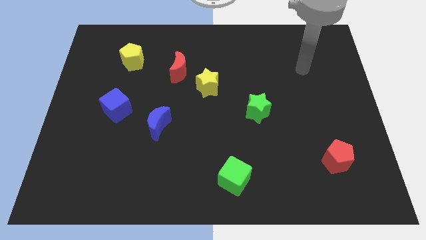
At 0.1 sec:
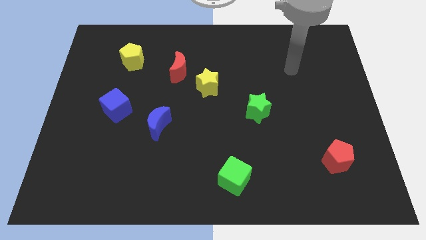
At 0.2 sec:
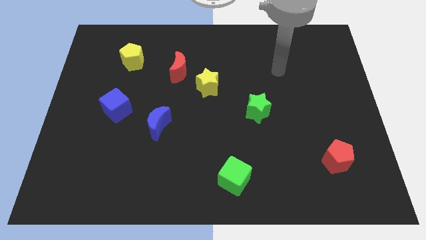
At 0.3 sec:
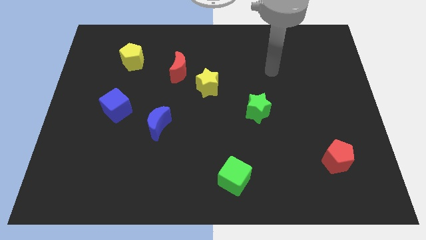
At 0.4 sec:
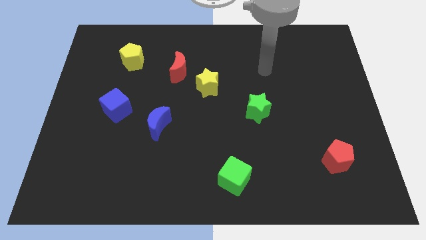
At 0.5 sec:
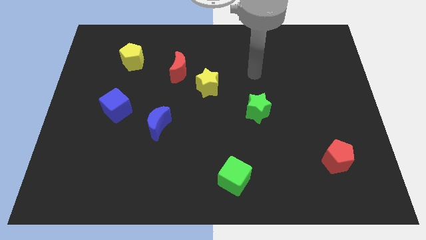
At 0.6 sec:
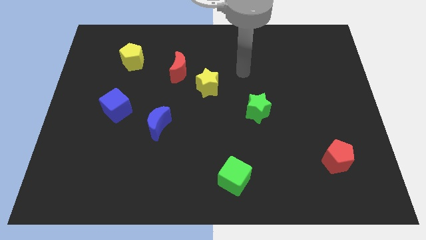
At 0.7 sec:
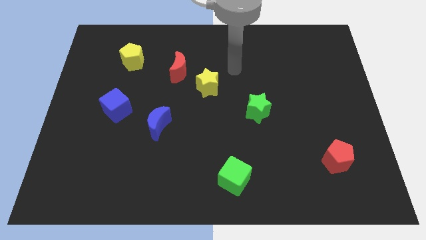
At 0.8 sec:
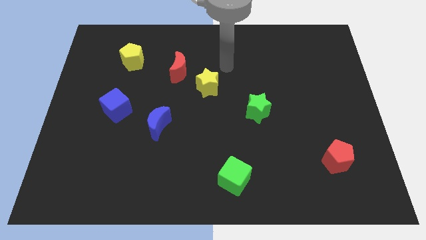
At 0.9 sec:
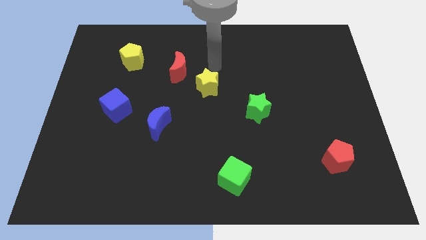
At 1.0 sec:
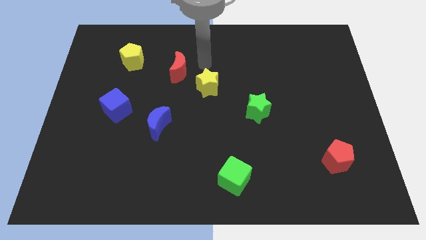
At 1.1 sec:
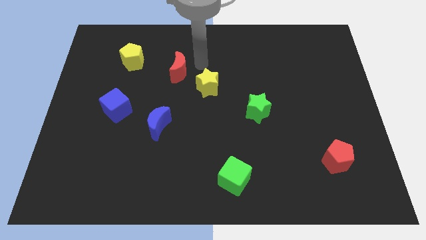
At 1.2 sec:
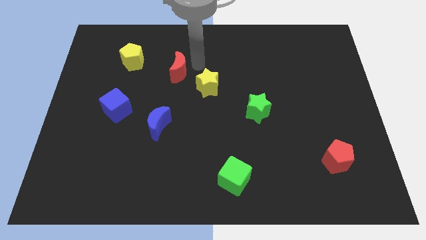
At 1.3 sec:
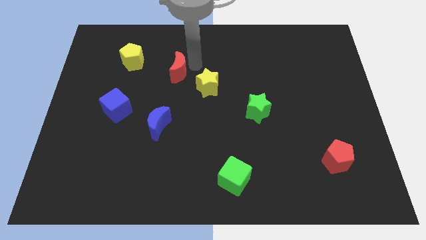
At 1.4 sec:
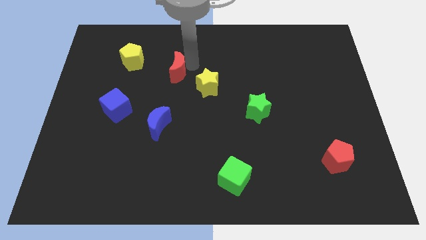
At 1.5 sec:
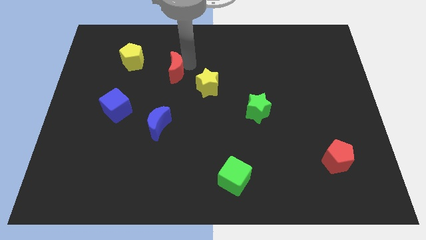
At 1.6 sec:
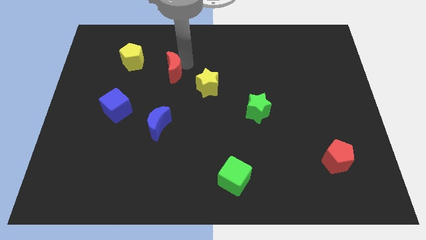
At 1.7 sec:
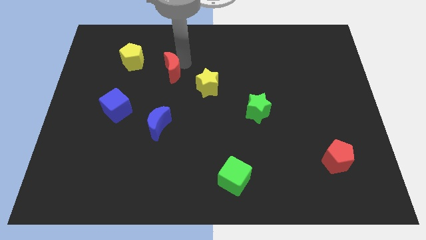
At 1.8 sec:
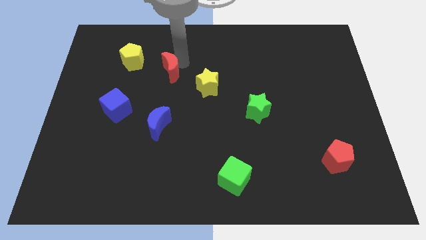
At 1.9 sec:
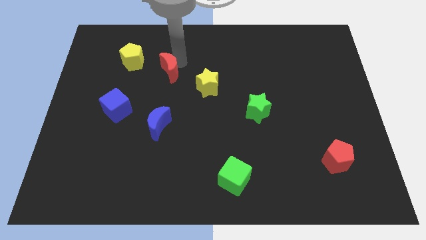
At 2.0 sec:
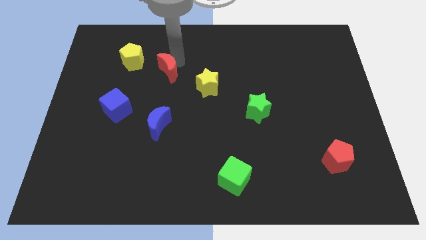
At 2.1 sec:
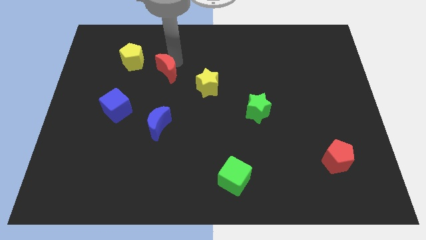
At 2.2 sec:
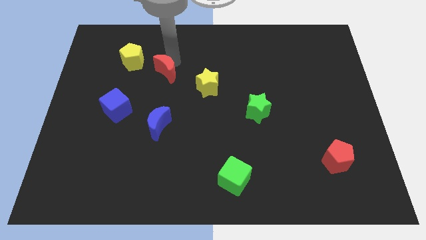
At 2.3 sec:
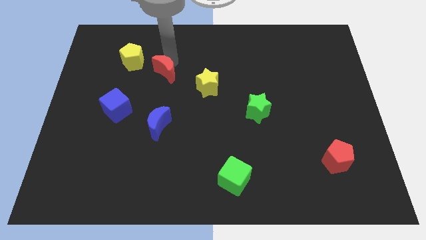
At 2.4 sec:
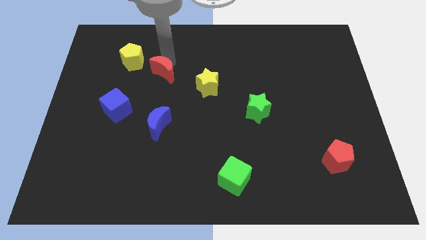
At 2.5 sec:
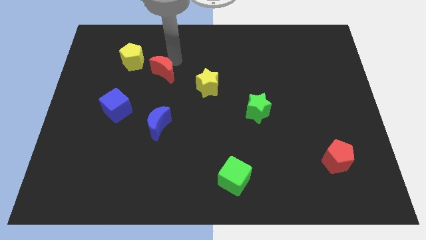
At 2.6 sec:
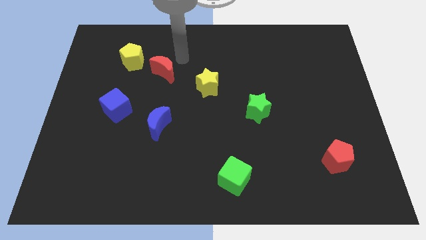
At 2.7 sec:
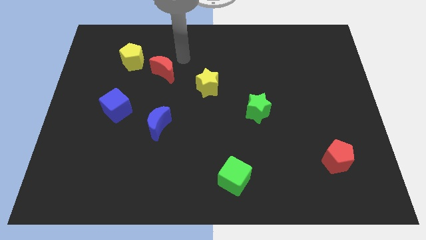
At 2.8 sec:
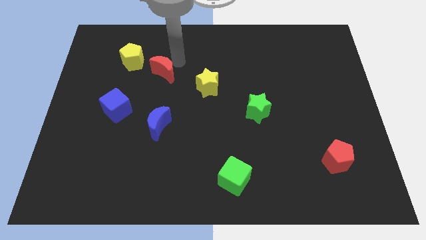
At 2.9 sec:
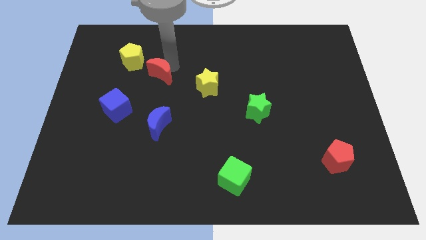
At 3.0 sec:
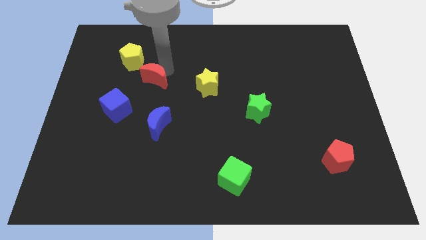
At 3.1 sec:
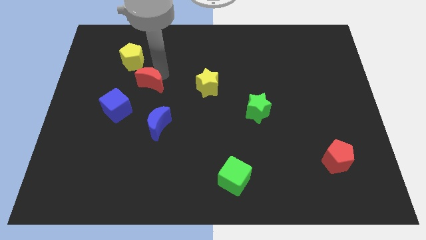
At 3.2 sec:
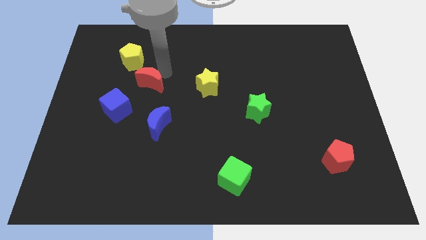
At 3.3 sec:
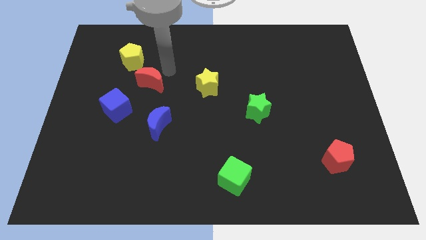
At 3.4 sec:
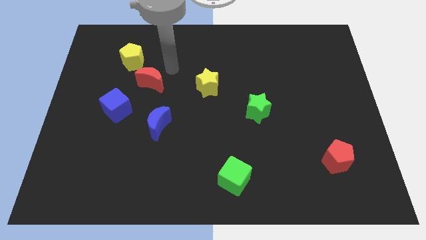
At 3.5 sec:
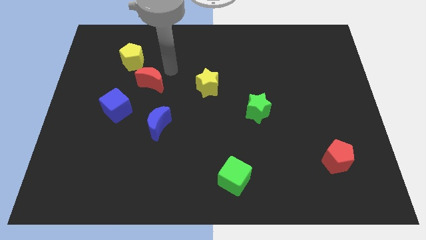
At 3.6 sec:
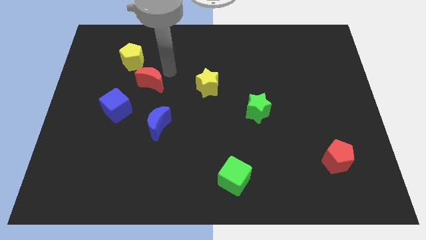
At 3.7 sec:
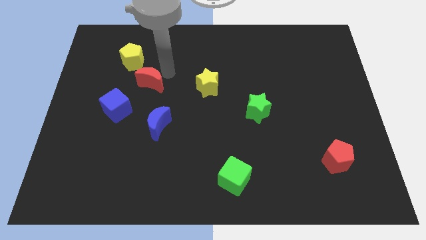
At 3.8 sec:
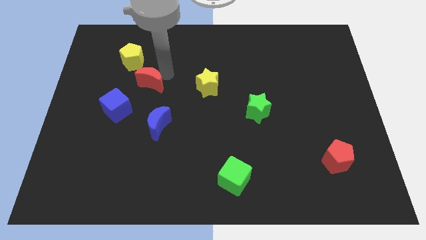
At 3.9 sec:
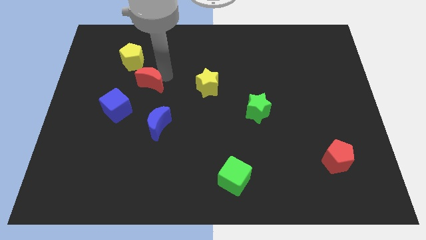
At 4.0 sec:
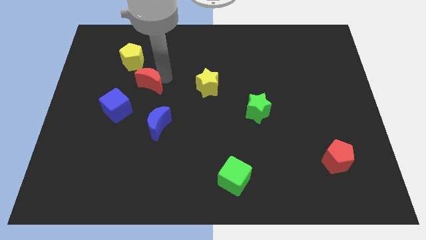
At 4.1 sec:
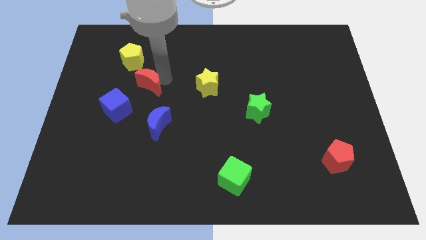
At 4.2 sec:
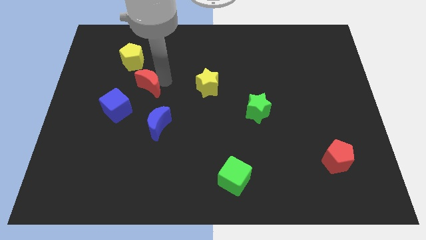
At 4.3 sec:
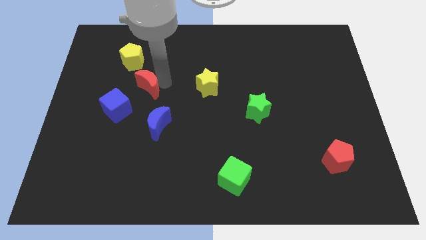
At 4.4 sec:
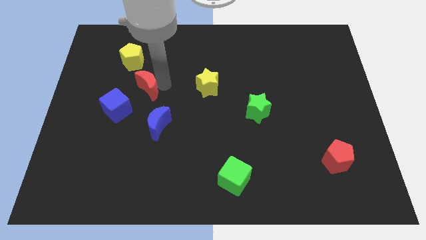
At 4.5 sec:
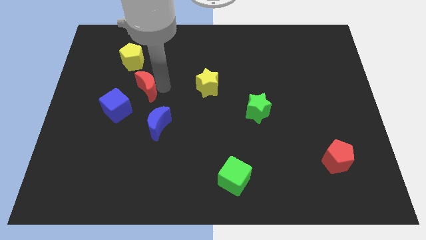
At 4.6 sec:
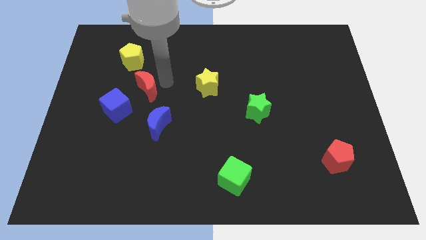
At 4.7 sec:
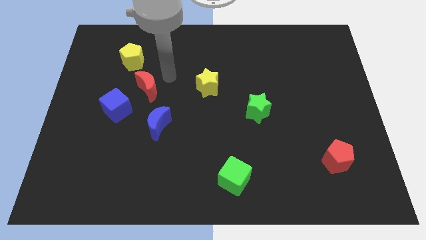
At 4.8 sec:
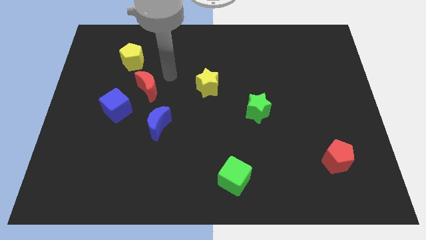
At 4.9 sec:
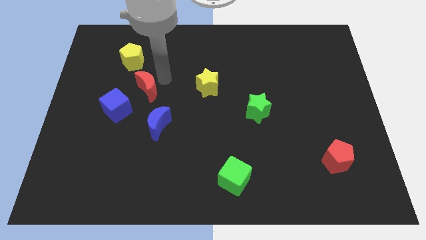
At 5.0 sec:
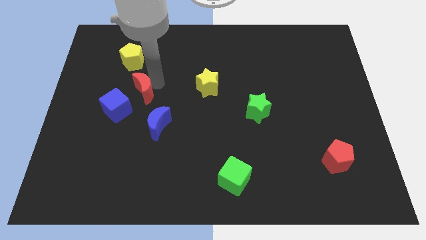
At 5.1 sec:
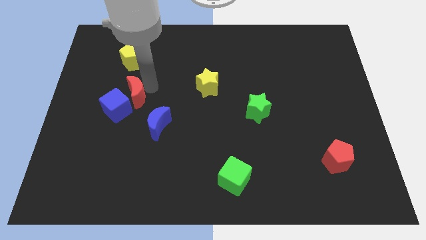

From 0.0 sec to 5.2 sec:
slide the red moon to the blue cube

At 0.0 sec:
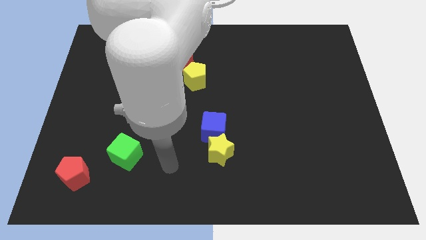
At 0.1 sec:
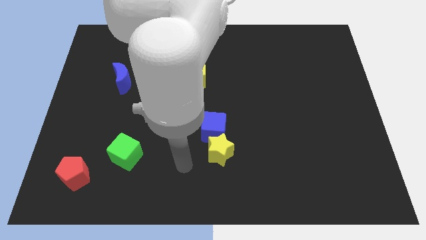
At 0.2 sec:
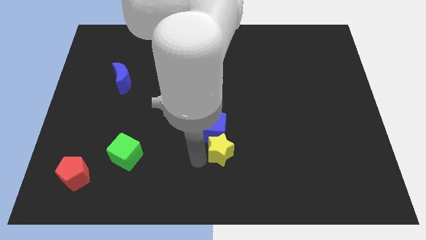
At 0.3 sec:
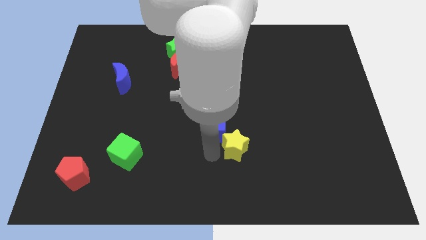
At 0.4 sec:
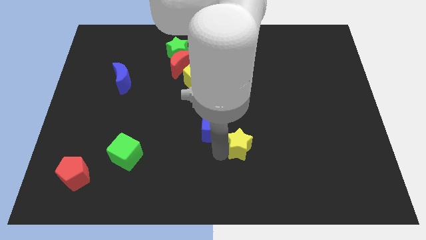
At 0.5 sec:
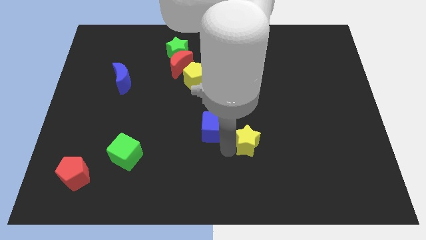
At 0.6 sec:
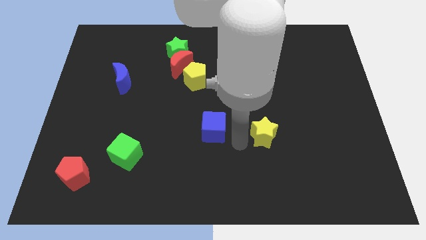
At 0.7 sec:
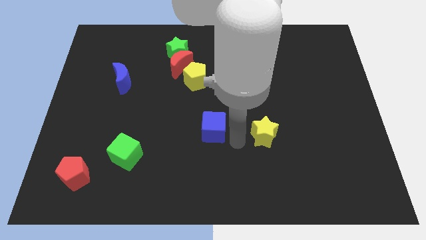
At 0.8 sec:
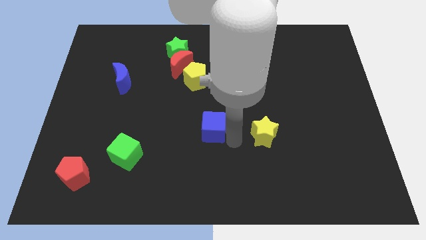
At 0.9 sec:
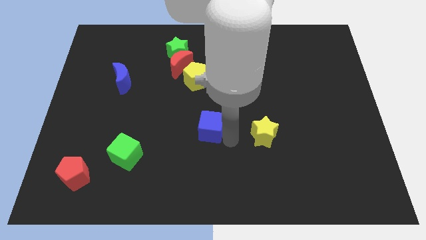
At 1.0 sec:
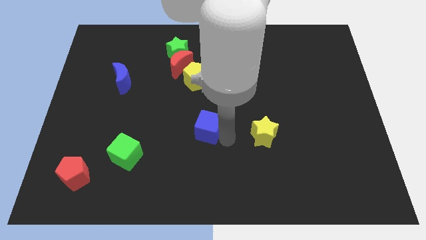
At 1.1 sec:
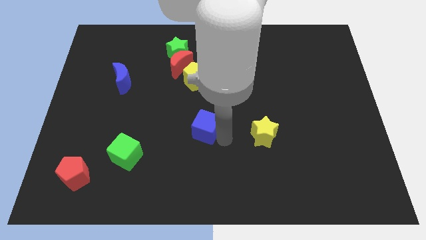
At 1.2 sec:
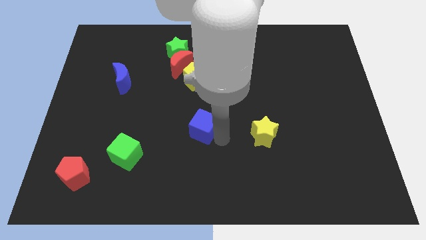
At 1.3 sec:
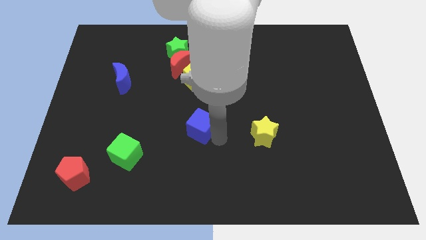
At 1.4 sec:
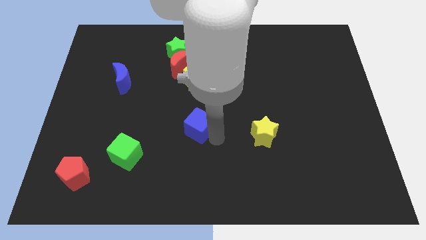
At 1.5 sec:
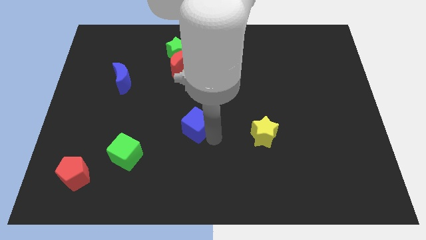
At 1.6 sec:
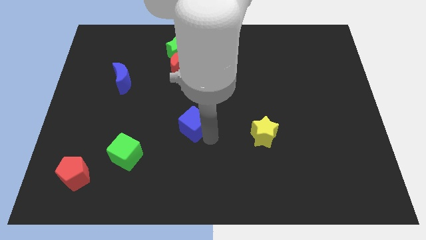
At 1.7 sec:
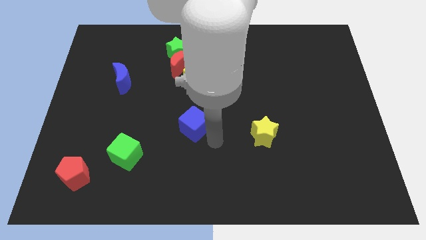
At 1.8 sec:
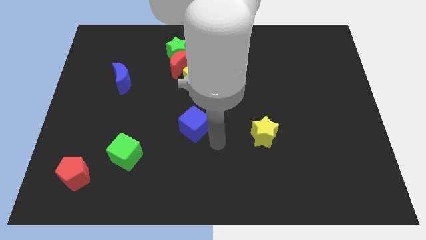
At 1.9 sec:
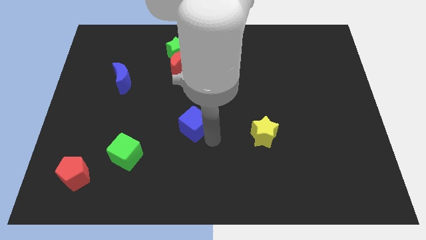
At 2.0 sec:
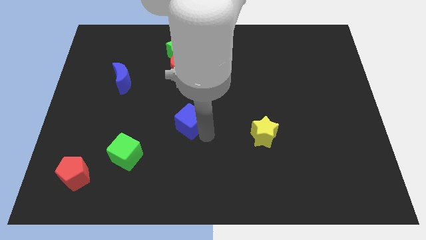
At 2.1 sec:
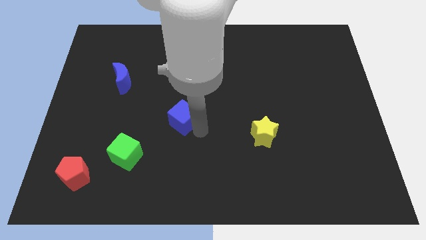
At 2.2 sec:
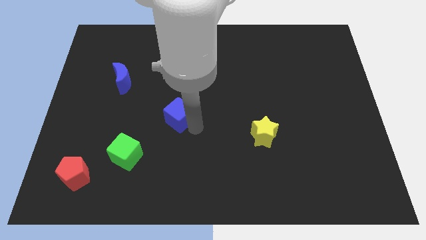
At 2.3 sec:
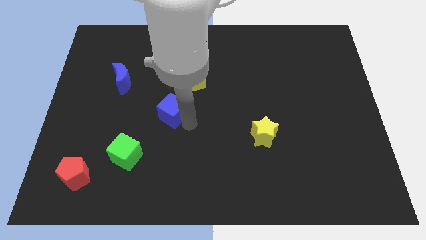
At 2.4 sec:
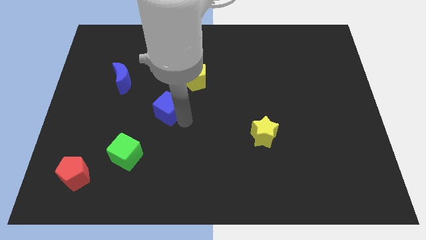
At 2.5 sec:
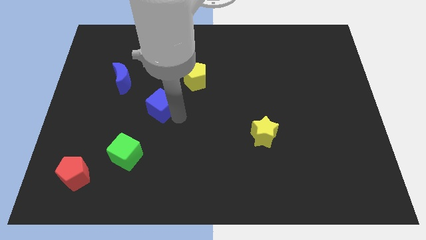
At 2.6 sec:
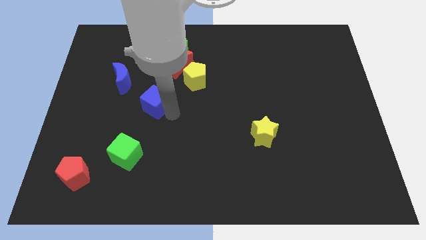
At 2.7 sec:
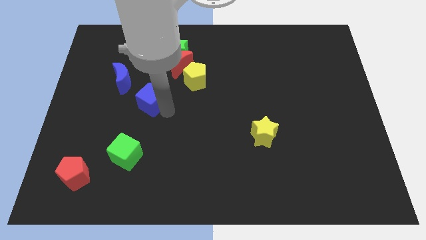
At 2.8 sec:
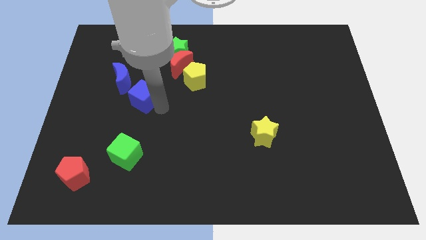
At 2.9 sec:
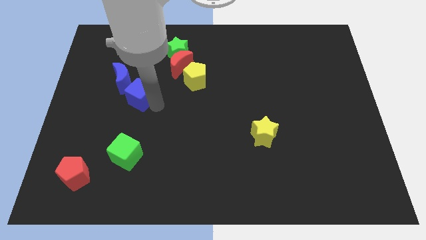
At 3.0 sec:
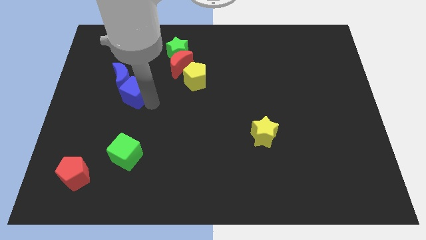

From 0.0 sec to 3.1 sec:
slide the blue cube next to the blue moon
